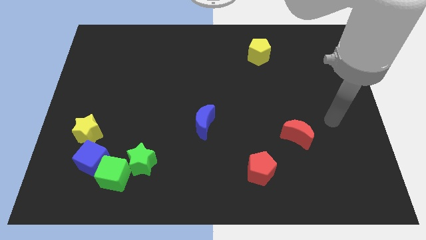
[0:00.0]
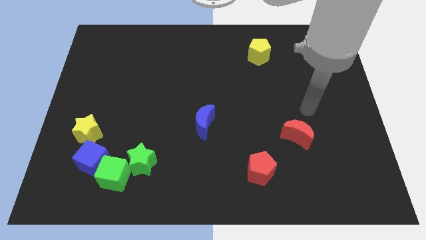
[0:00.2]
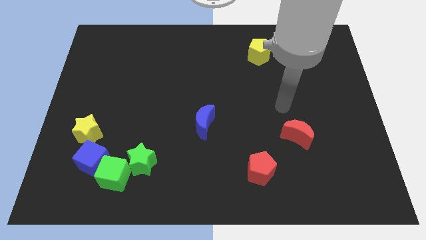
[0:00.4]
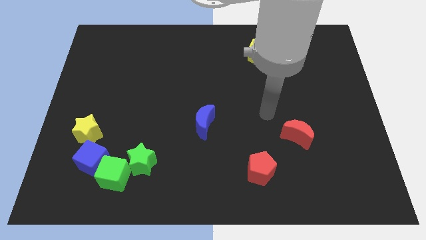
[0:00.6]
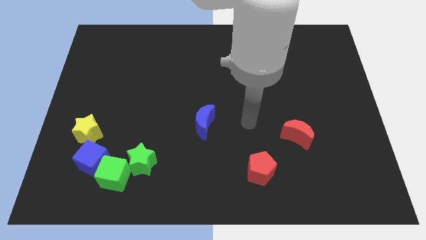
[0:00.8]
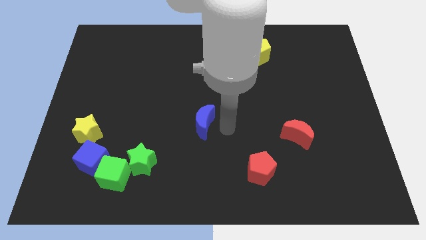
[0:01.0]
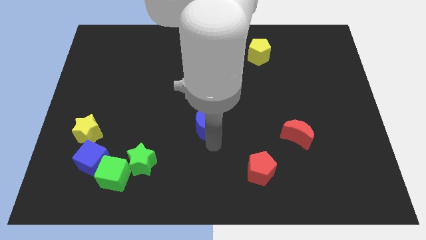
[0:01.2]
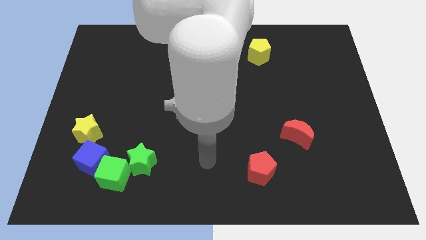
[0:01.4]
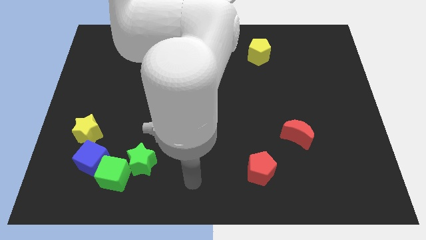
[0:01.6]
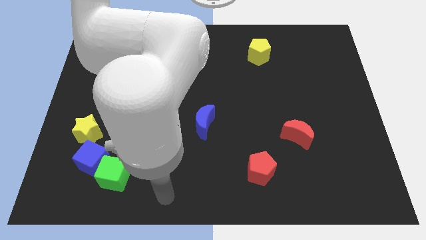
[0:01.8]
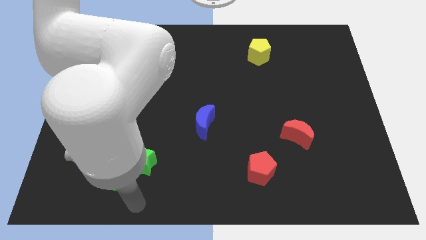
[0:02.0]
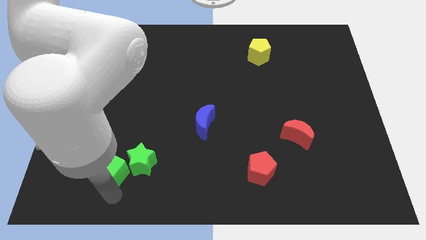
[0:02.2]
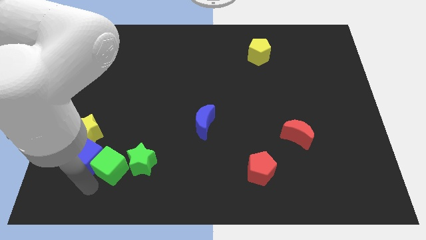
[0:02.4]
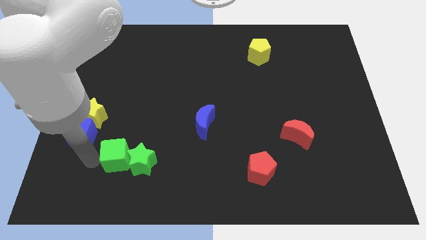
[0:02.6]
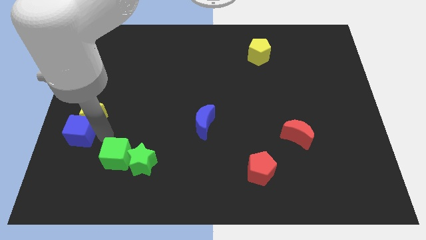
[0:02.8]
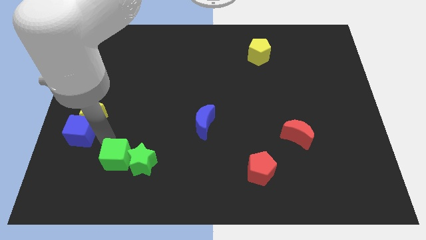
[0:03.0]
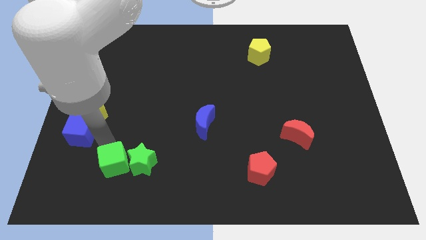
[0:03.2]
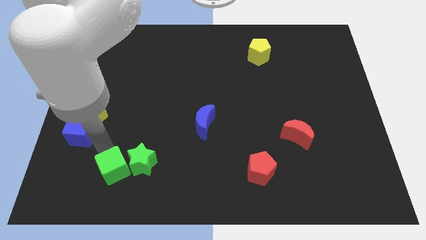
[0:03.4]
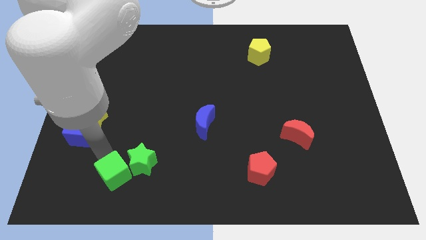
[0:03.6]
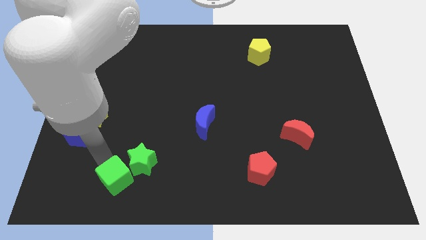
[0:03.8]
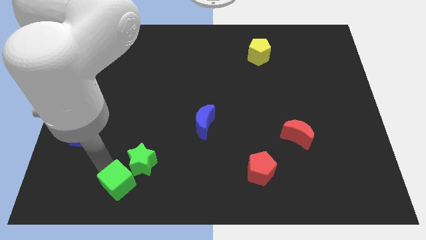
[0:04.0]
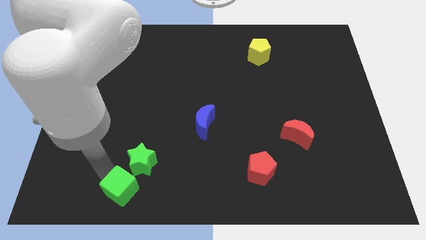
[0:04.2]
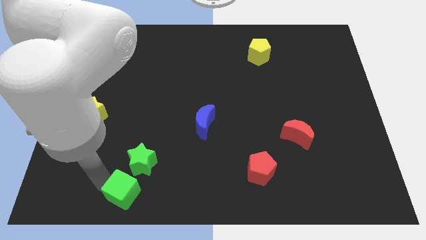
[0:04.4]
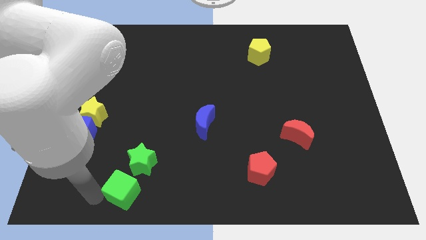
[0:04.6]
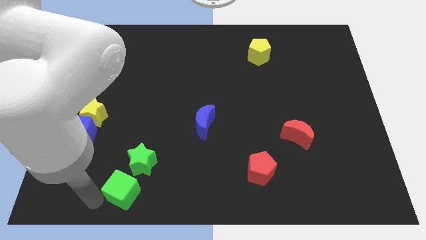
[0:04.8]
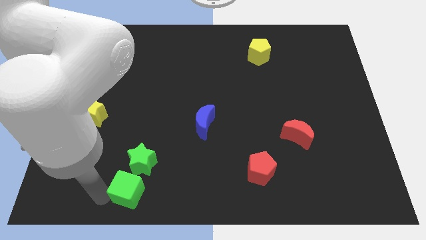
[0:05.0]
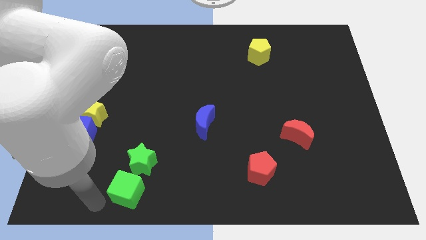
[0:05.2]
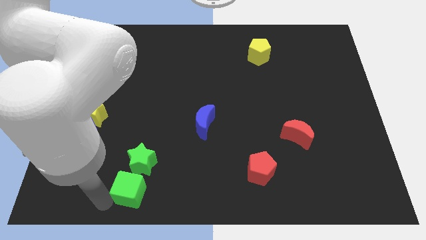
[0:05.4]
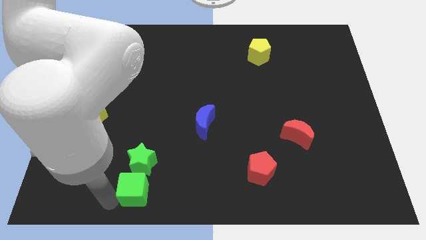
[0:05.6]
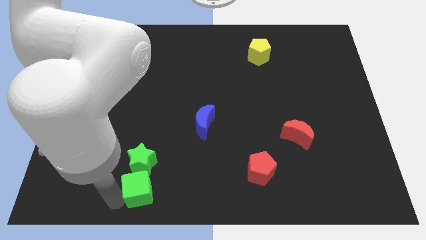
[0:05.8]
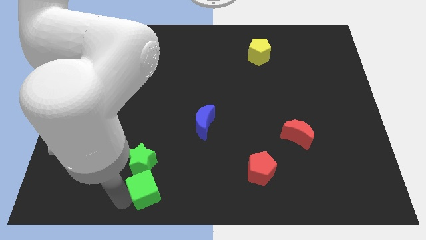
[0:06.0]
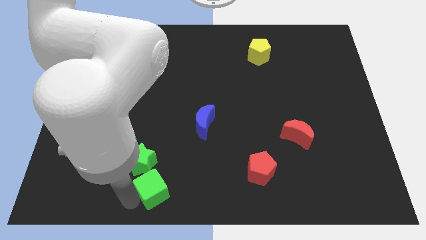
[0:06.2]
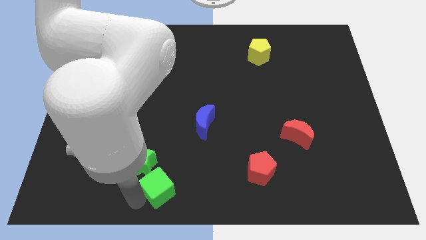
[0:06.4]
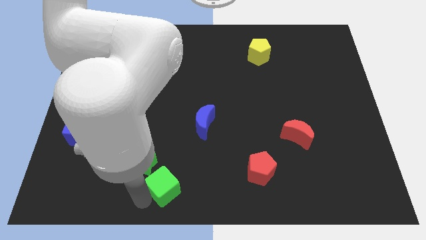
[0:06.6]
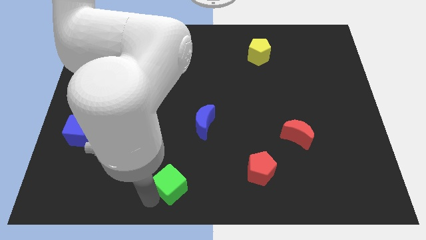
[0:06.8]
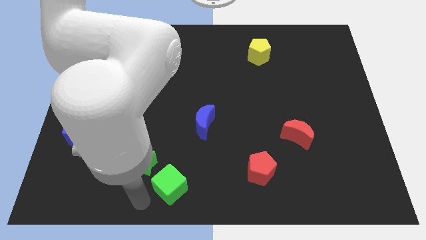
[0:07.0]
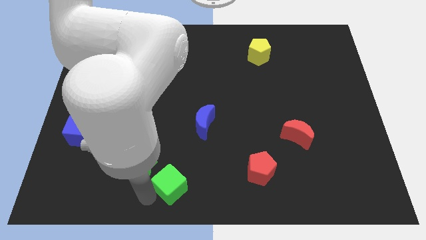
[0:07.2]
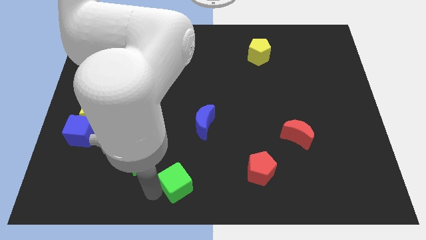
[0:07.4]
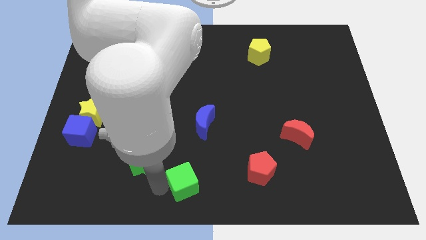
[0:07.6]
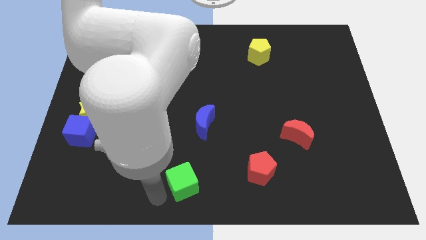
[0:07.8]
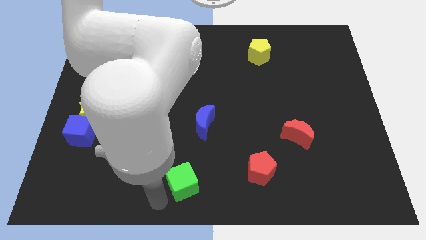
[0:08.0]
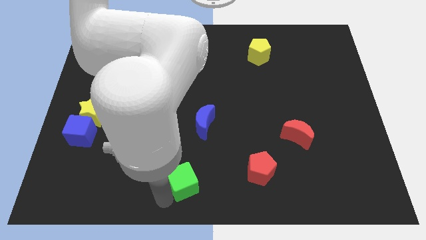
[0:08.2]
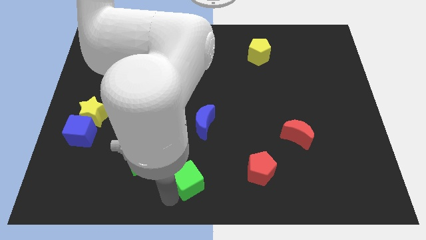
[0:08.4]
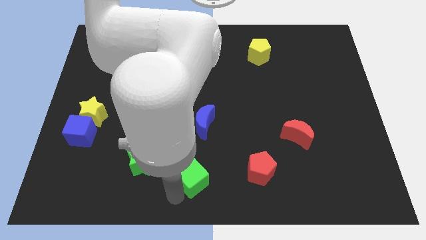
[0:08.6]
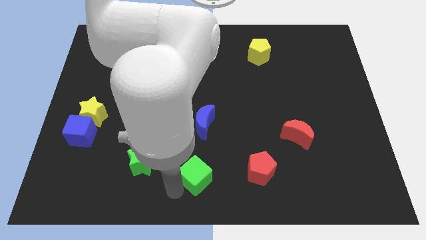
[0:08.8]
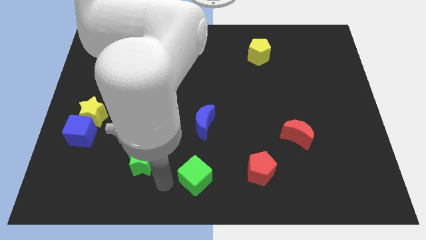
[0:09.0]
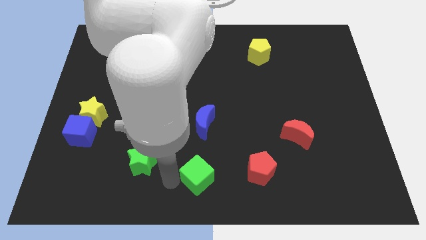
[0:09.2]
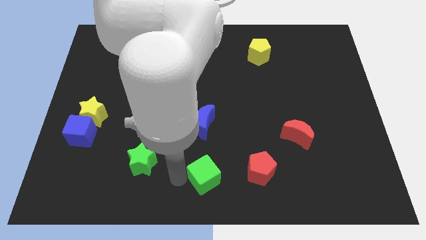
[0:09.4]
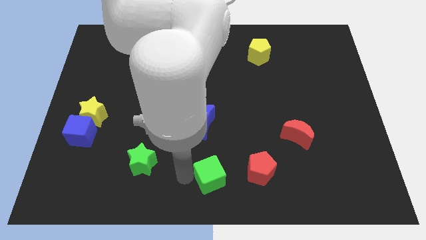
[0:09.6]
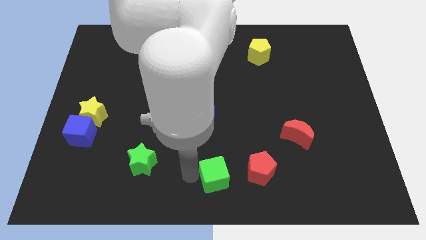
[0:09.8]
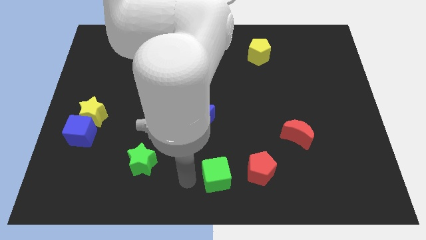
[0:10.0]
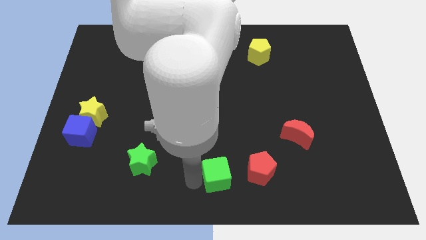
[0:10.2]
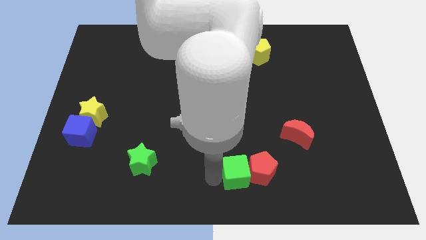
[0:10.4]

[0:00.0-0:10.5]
put the green cube close to the red pentagon

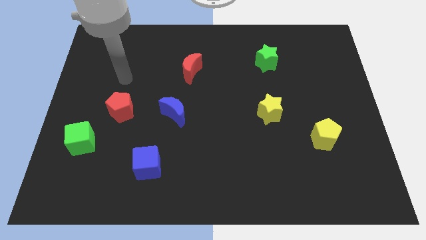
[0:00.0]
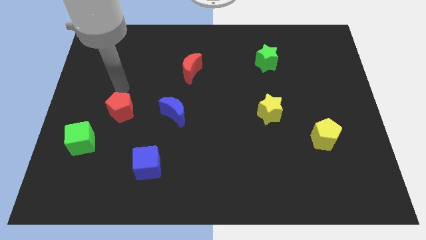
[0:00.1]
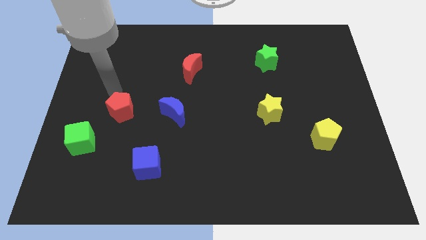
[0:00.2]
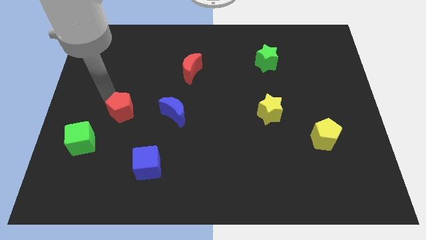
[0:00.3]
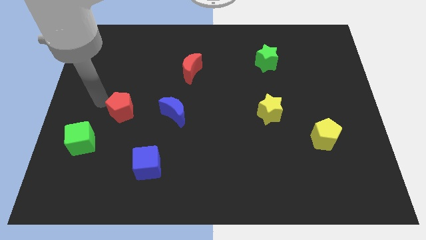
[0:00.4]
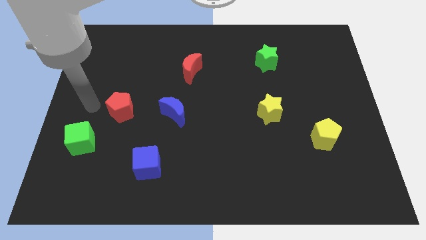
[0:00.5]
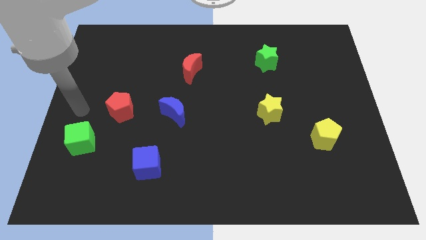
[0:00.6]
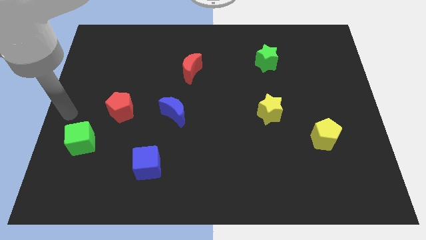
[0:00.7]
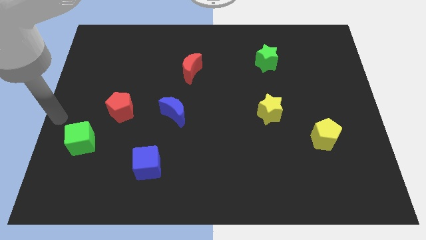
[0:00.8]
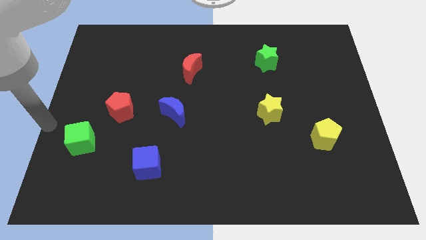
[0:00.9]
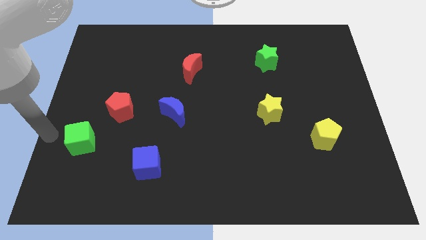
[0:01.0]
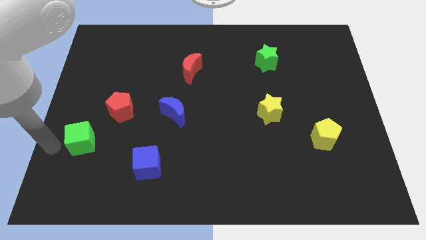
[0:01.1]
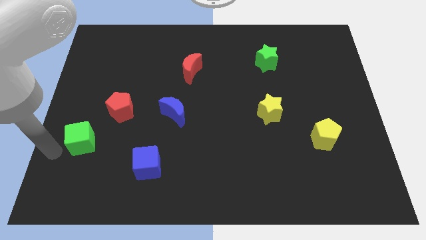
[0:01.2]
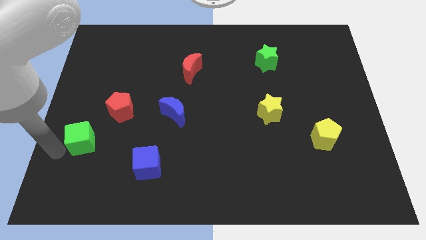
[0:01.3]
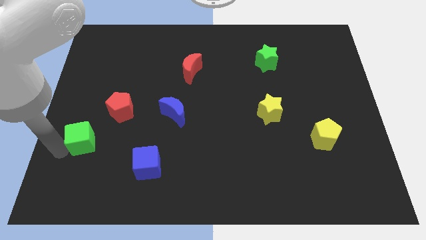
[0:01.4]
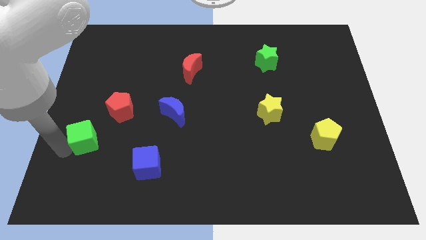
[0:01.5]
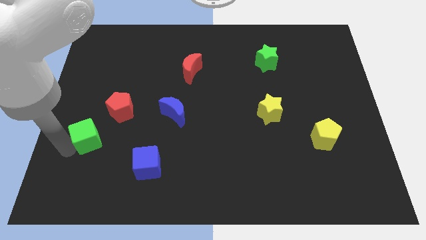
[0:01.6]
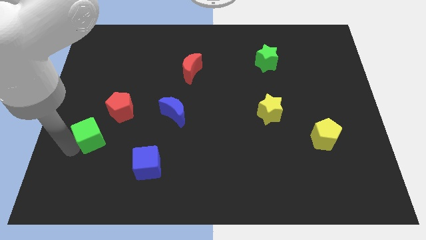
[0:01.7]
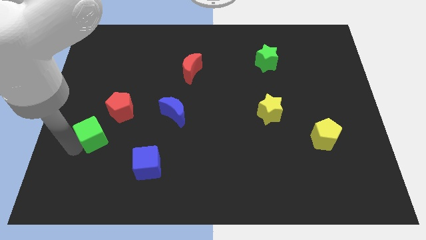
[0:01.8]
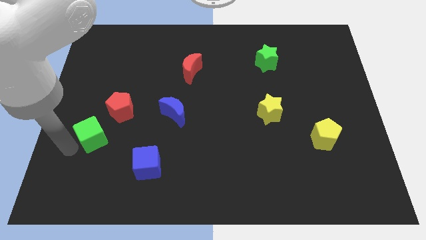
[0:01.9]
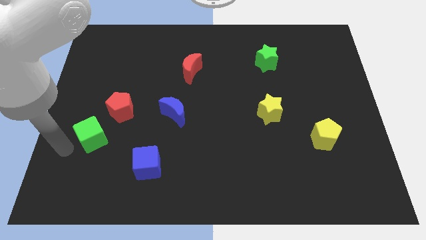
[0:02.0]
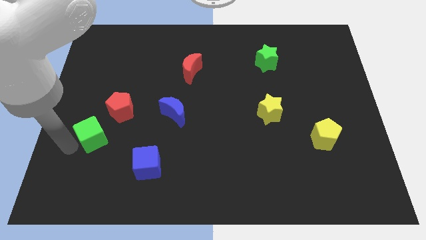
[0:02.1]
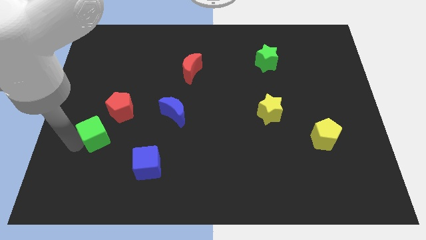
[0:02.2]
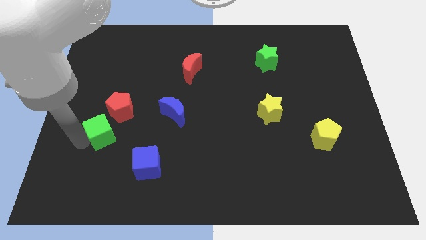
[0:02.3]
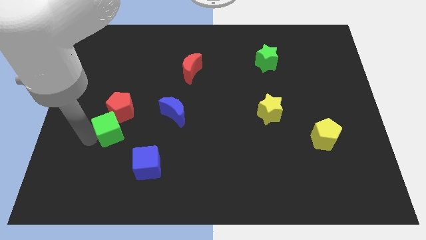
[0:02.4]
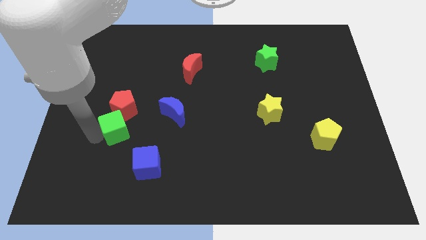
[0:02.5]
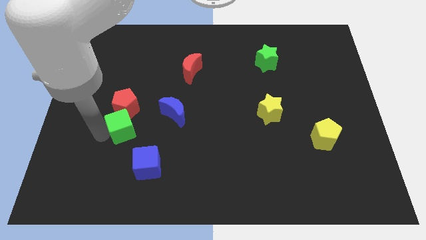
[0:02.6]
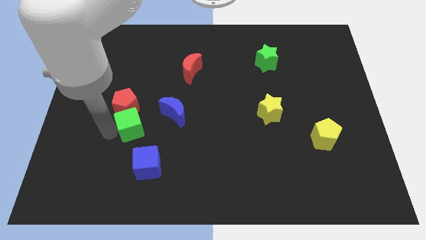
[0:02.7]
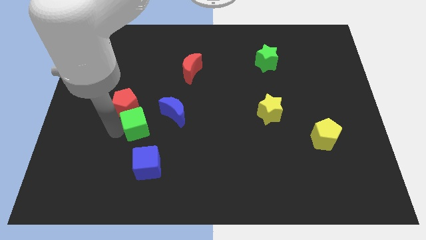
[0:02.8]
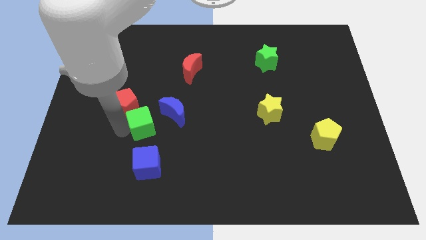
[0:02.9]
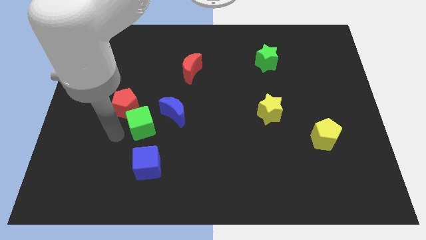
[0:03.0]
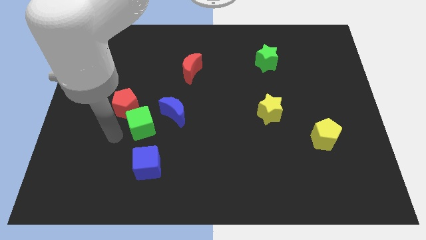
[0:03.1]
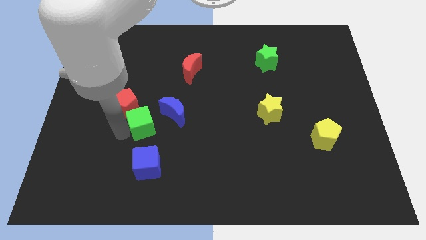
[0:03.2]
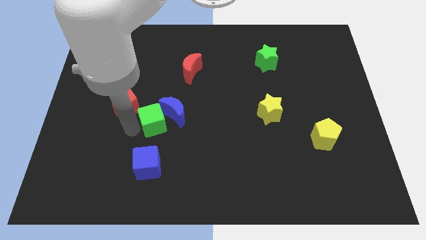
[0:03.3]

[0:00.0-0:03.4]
put the green cube towards the blue moon
